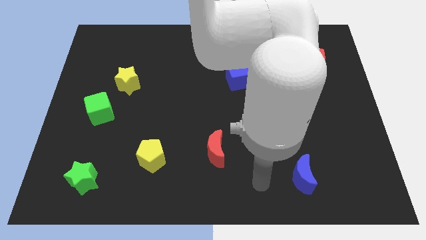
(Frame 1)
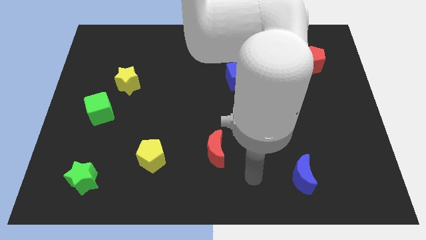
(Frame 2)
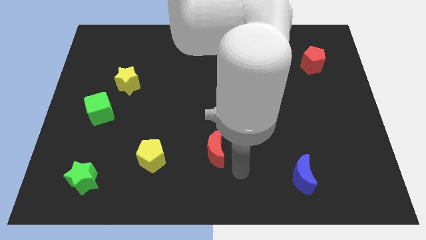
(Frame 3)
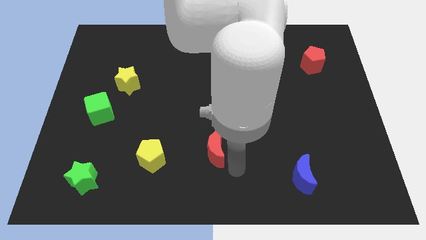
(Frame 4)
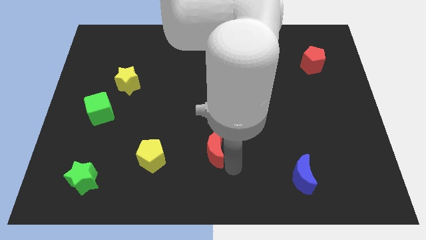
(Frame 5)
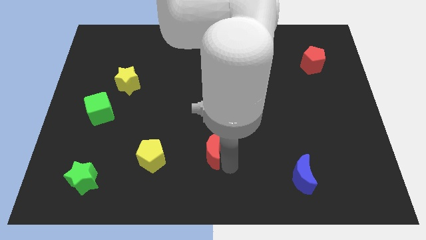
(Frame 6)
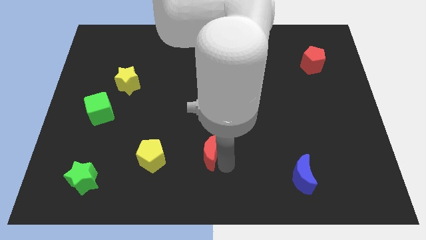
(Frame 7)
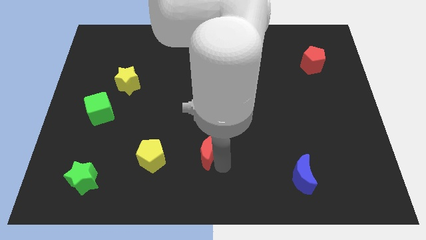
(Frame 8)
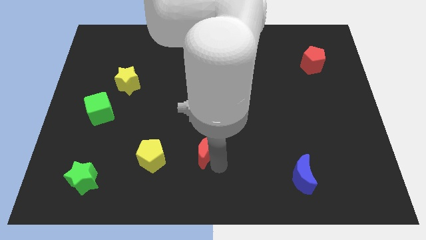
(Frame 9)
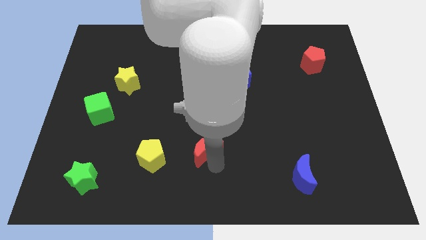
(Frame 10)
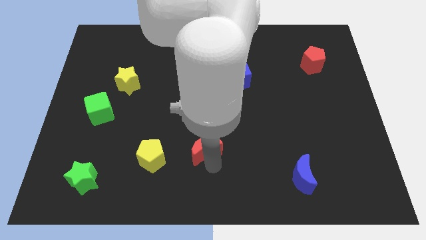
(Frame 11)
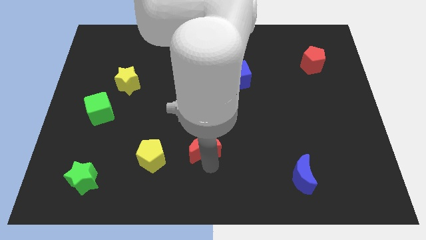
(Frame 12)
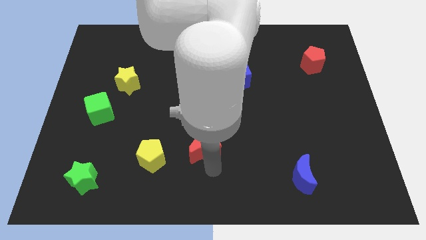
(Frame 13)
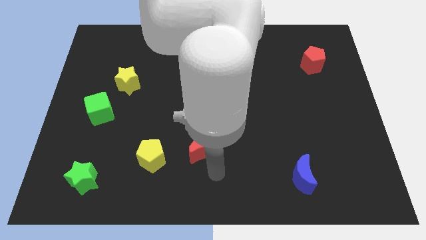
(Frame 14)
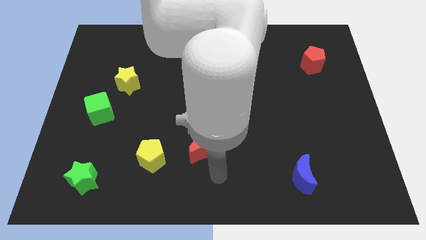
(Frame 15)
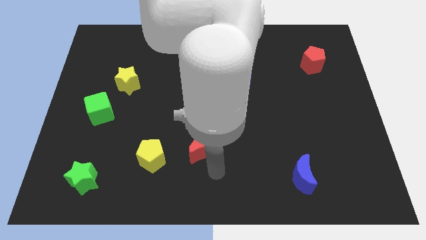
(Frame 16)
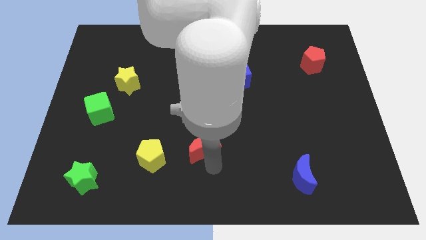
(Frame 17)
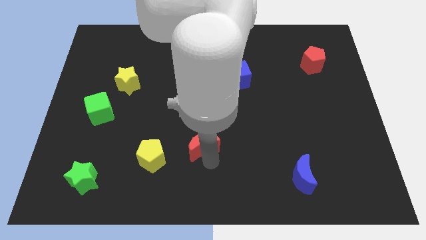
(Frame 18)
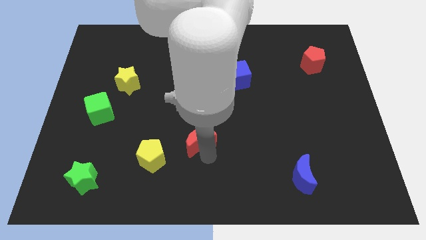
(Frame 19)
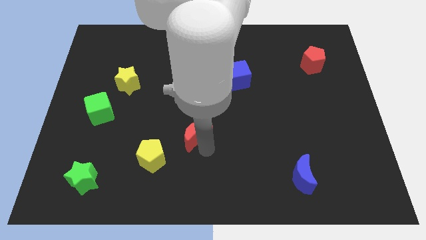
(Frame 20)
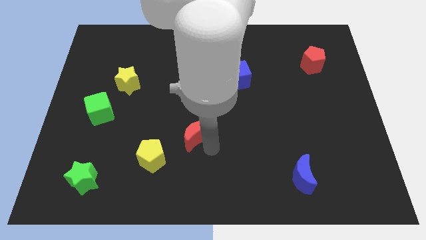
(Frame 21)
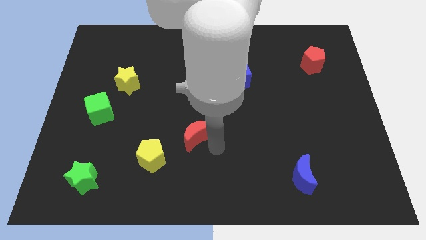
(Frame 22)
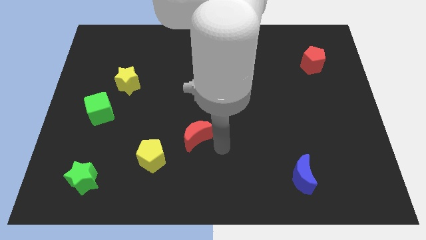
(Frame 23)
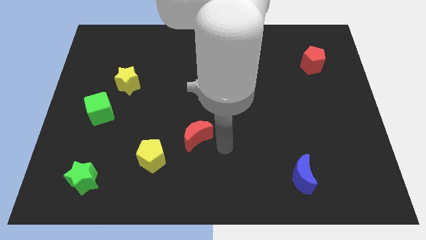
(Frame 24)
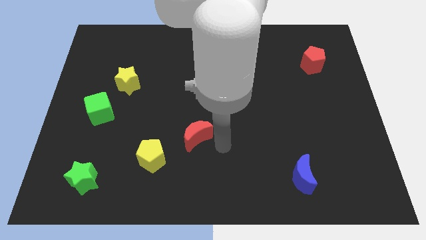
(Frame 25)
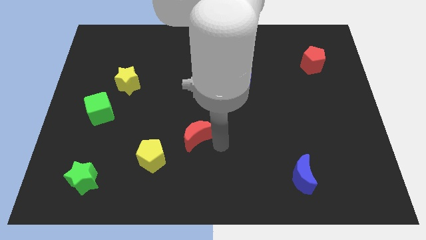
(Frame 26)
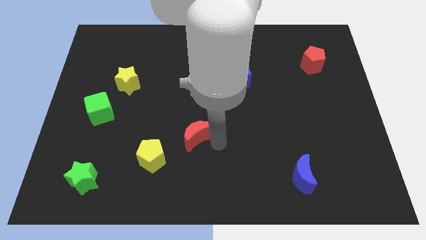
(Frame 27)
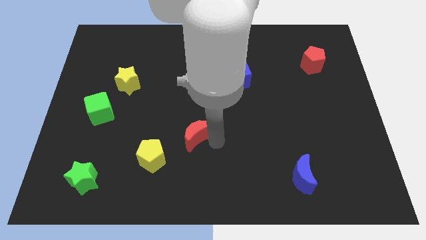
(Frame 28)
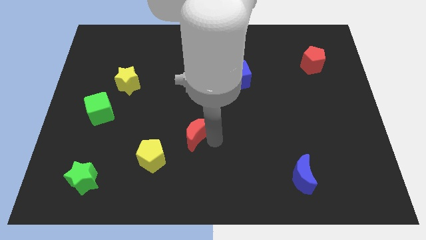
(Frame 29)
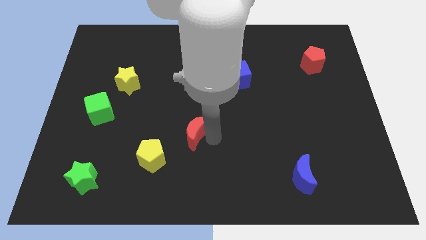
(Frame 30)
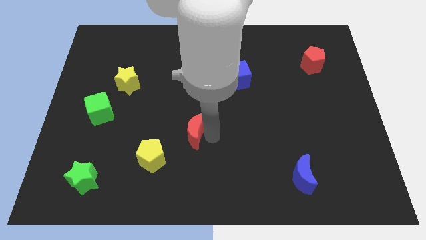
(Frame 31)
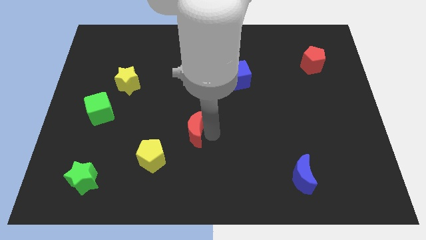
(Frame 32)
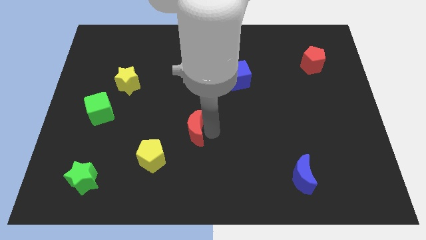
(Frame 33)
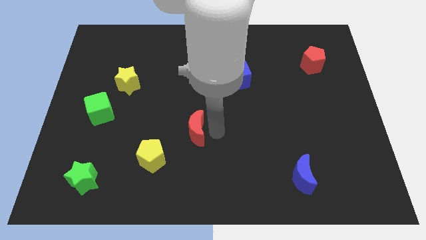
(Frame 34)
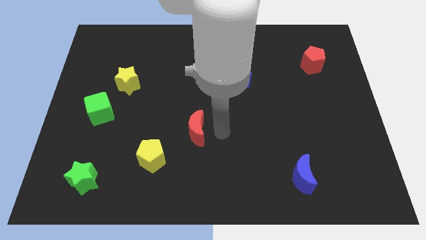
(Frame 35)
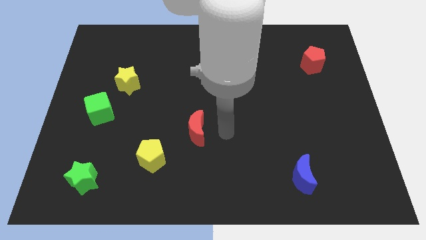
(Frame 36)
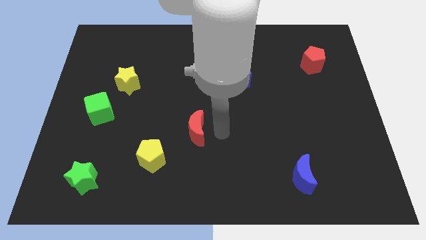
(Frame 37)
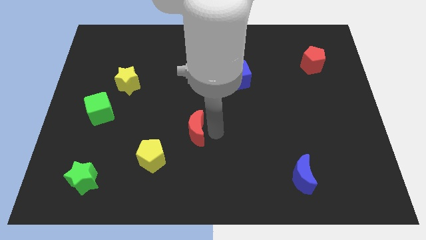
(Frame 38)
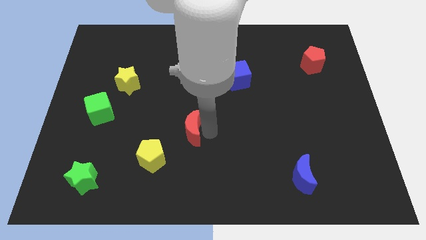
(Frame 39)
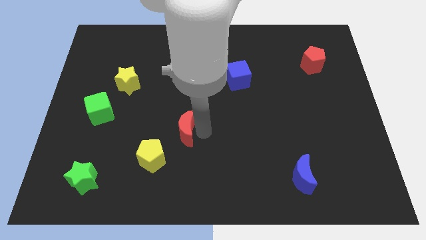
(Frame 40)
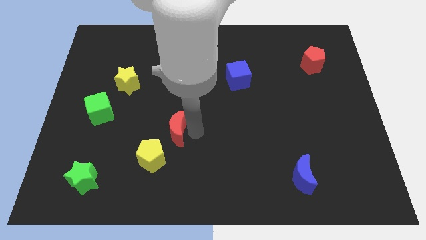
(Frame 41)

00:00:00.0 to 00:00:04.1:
slightly move the red moon left

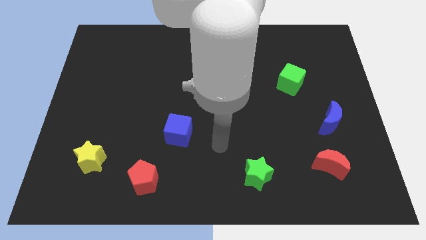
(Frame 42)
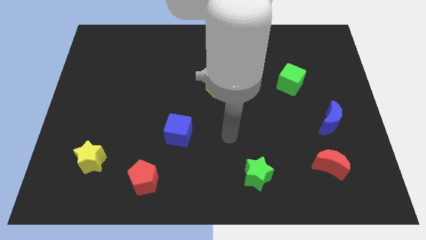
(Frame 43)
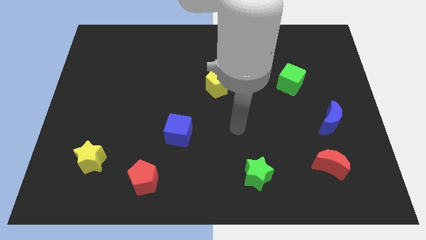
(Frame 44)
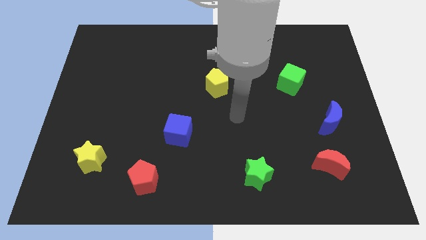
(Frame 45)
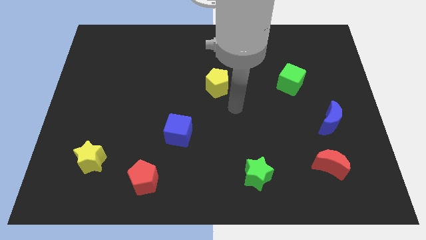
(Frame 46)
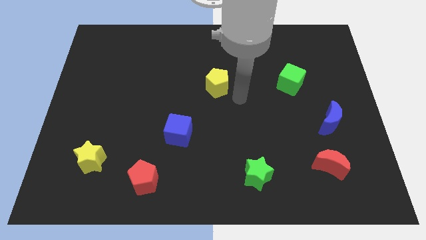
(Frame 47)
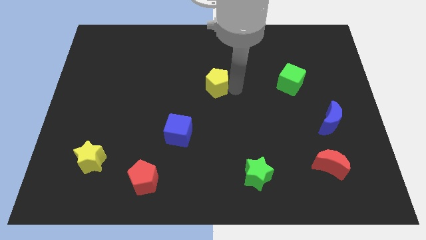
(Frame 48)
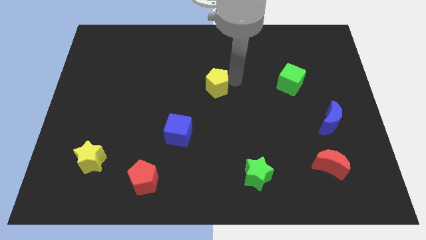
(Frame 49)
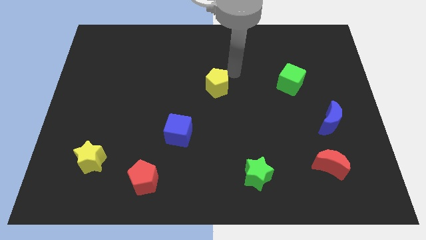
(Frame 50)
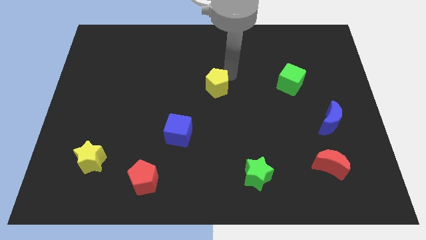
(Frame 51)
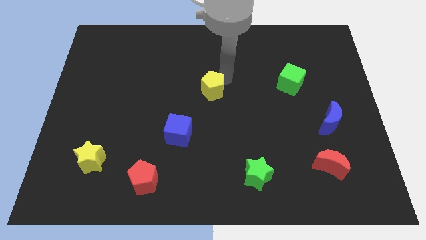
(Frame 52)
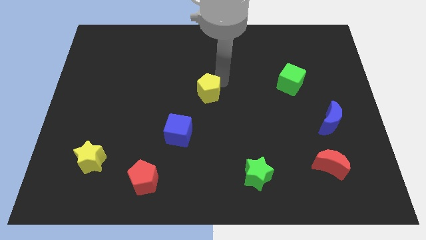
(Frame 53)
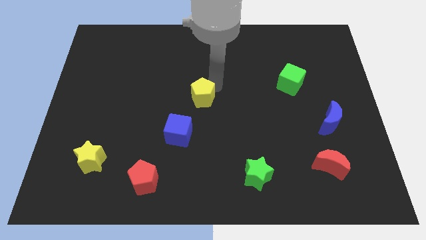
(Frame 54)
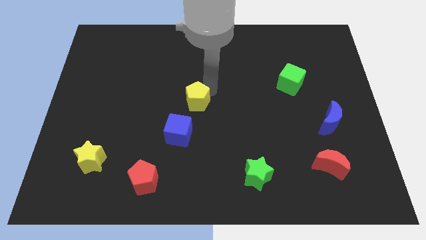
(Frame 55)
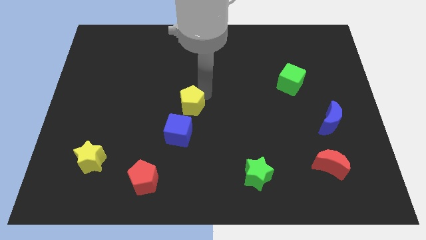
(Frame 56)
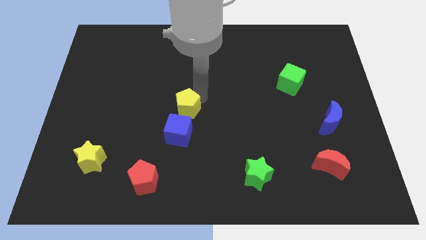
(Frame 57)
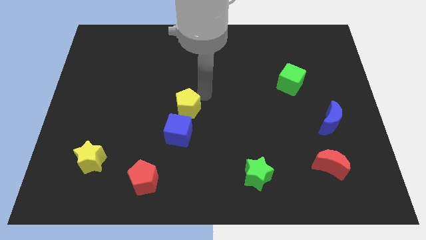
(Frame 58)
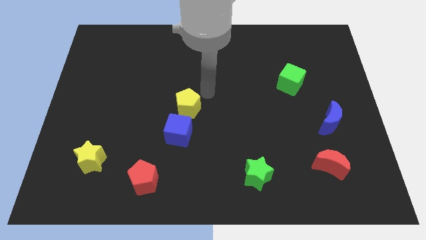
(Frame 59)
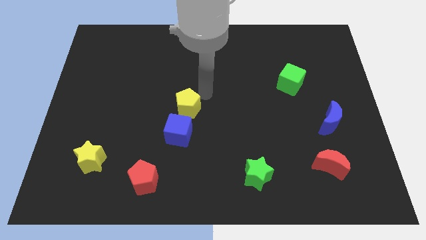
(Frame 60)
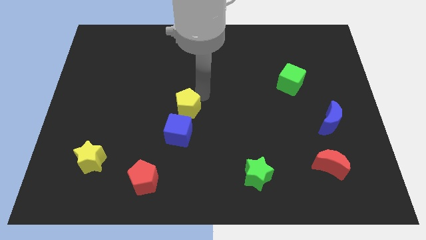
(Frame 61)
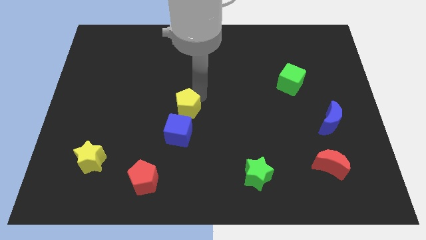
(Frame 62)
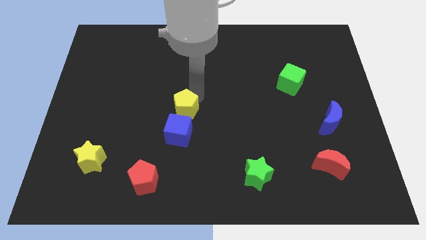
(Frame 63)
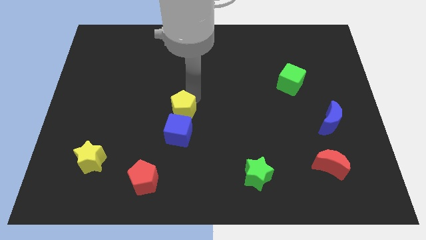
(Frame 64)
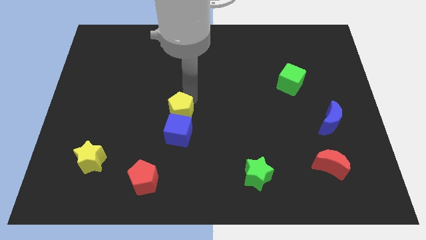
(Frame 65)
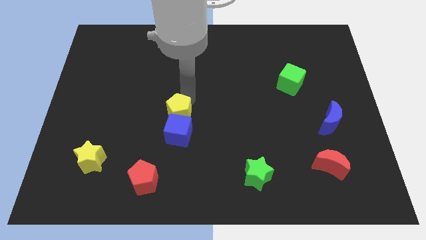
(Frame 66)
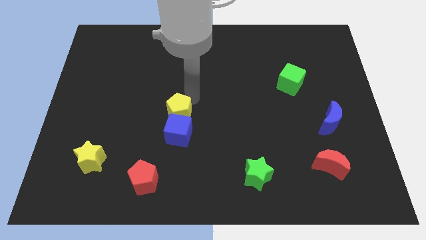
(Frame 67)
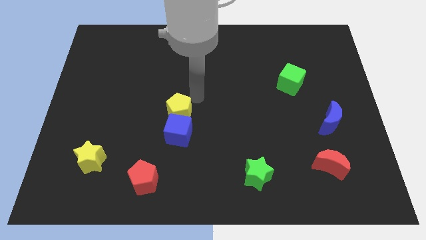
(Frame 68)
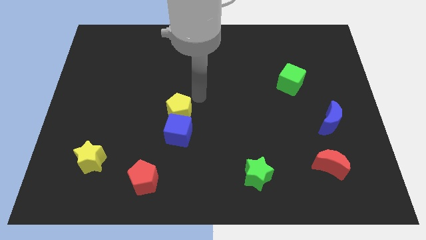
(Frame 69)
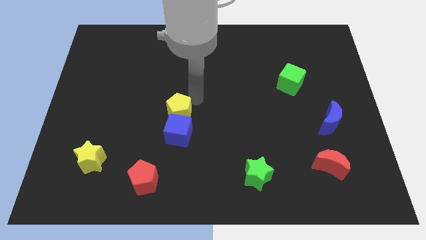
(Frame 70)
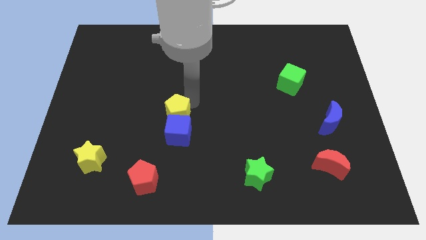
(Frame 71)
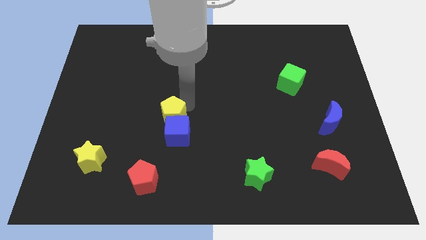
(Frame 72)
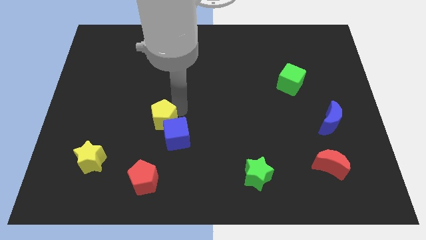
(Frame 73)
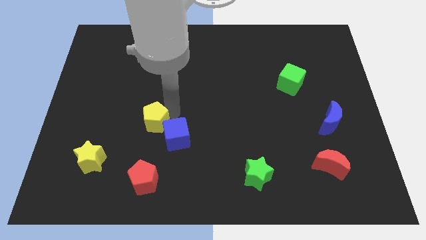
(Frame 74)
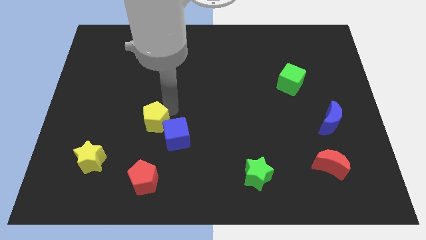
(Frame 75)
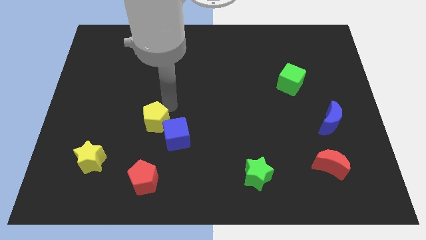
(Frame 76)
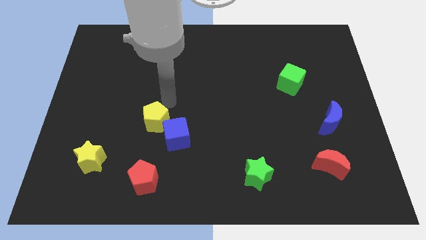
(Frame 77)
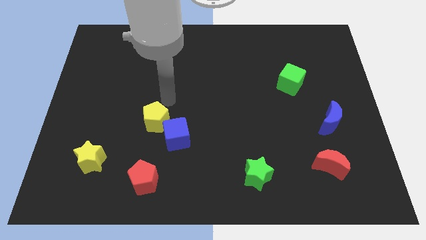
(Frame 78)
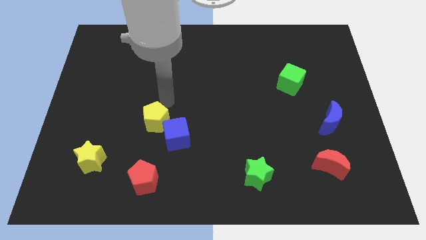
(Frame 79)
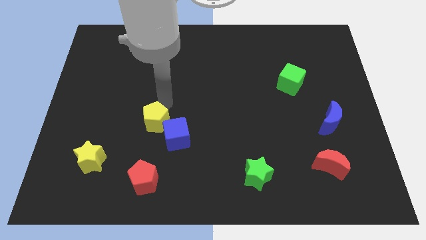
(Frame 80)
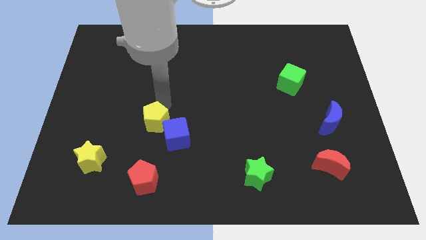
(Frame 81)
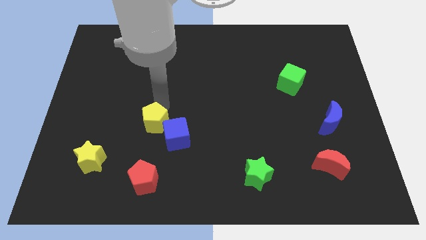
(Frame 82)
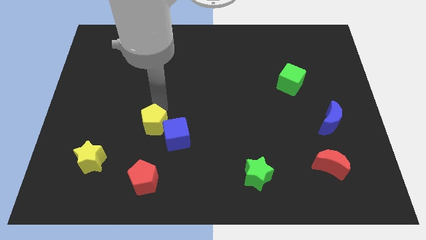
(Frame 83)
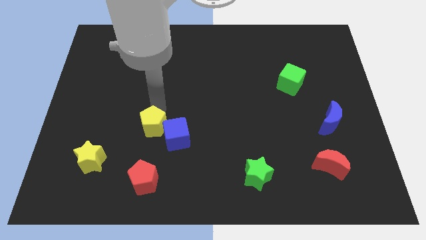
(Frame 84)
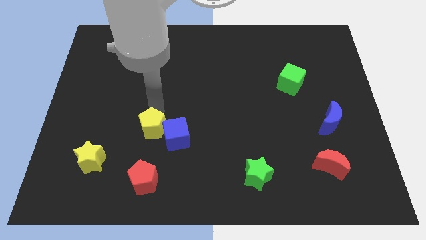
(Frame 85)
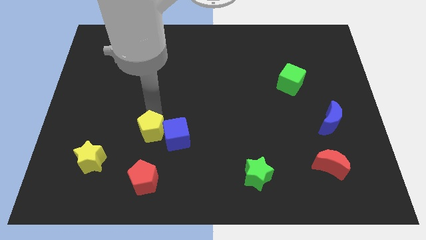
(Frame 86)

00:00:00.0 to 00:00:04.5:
slide the yellow pentagon downwards and to the left
